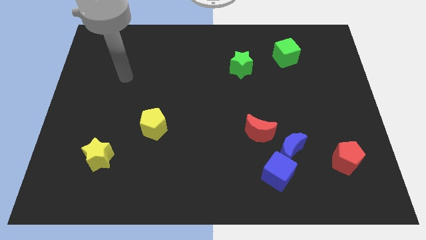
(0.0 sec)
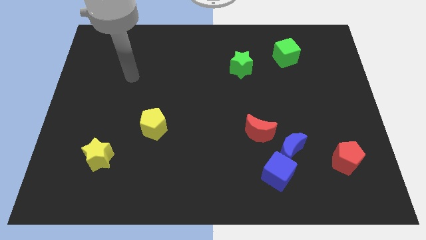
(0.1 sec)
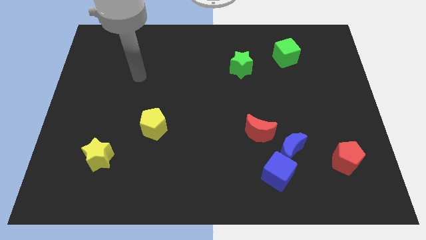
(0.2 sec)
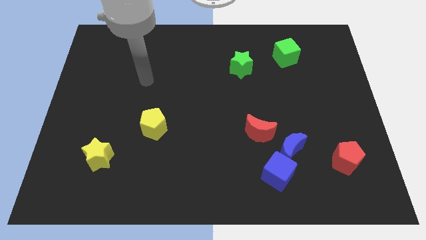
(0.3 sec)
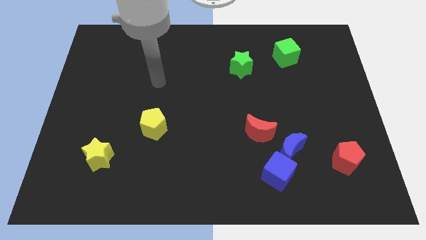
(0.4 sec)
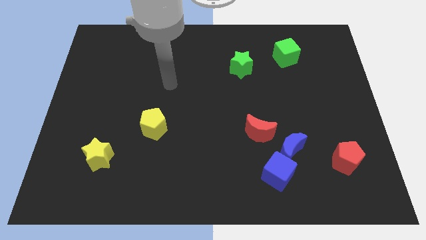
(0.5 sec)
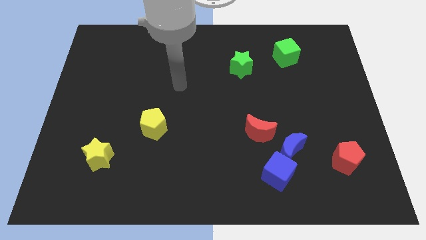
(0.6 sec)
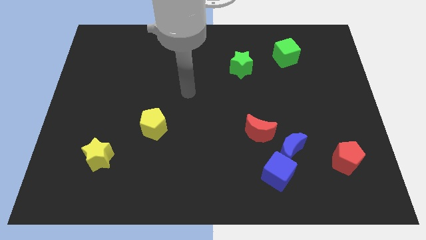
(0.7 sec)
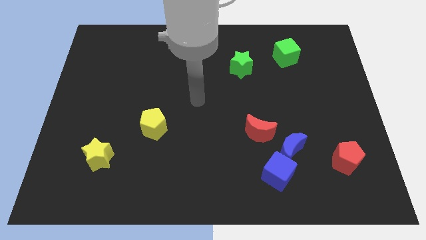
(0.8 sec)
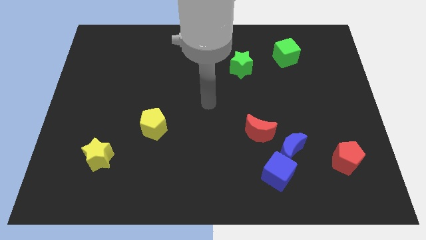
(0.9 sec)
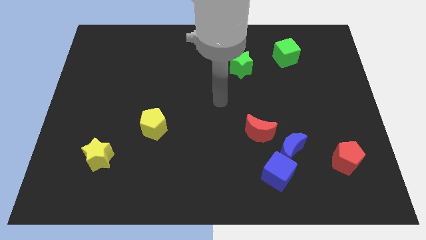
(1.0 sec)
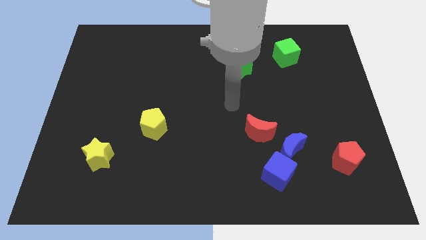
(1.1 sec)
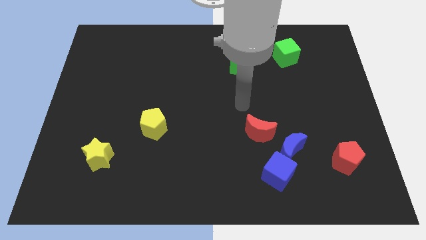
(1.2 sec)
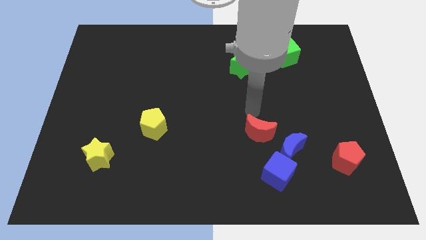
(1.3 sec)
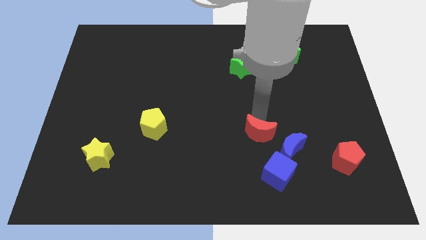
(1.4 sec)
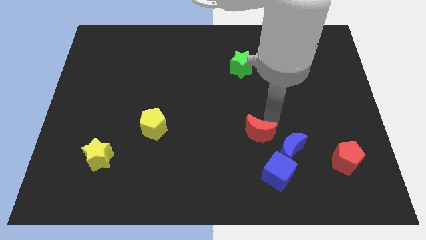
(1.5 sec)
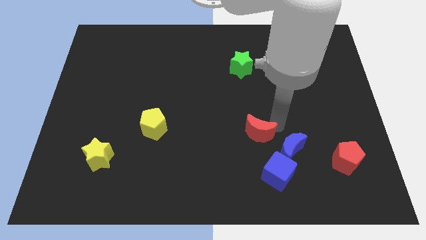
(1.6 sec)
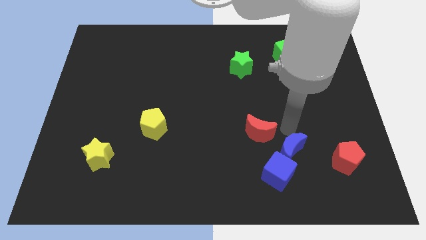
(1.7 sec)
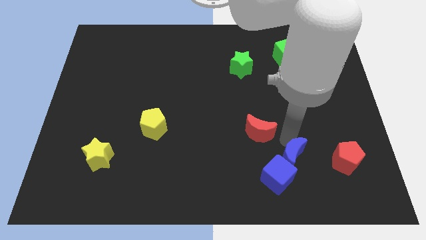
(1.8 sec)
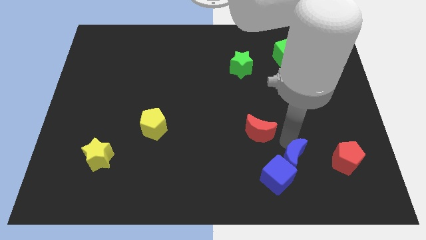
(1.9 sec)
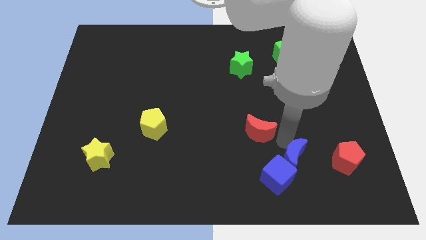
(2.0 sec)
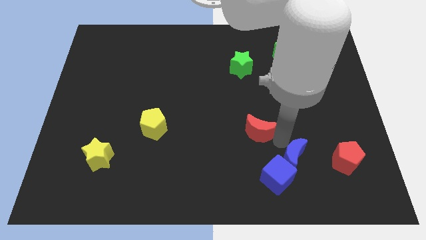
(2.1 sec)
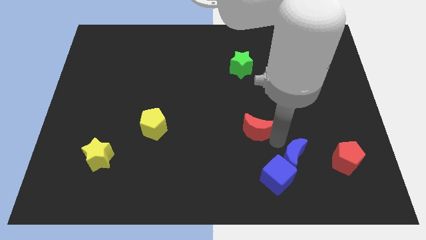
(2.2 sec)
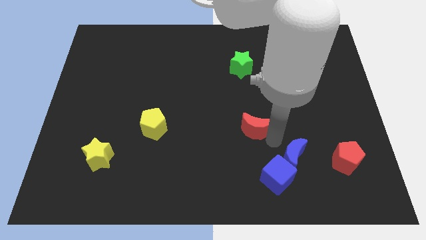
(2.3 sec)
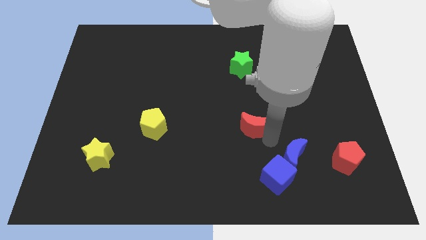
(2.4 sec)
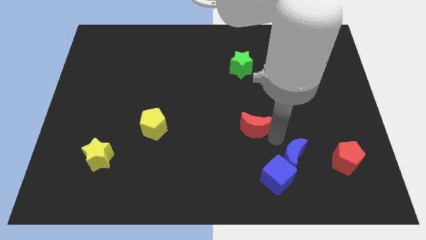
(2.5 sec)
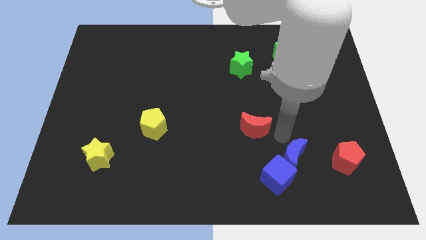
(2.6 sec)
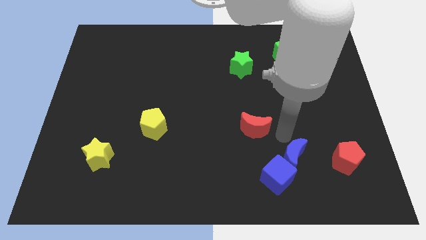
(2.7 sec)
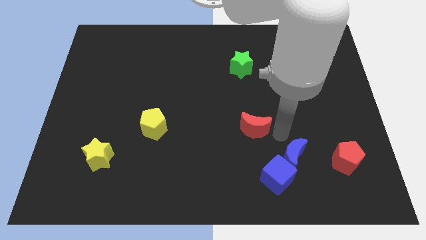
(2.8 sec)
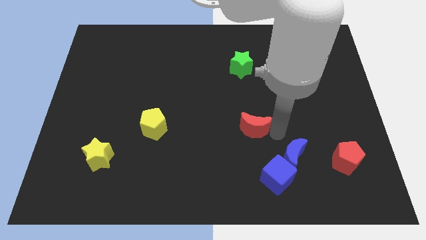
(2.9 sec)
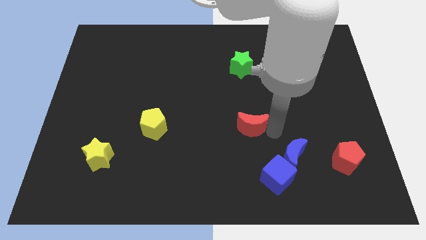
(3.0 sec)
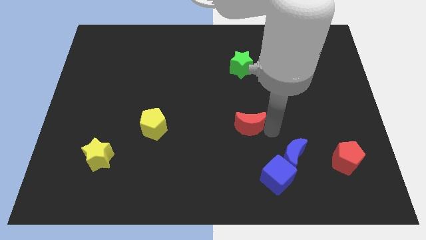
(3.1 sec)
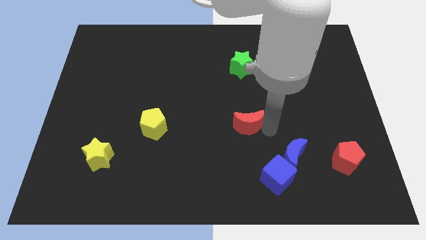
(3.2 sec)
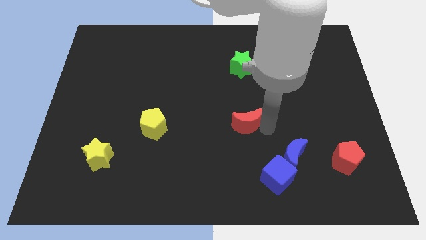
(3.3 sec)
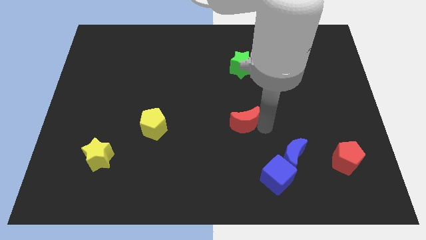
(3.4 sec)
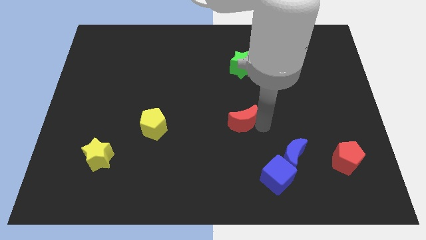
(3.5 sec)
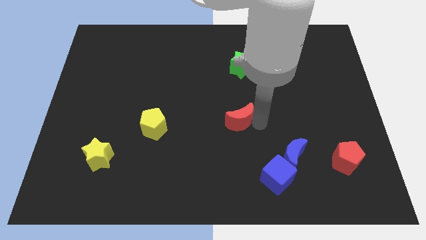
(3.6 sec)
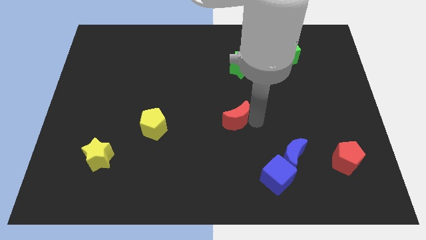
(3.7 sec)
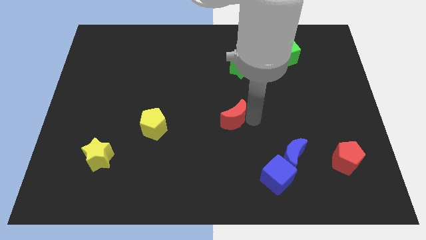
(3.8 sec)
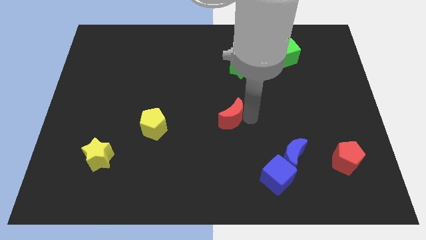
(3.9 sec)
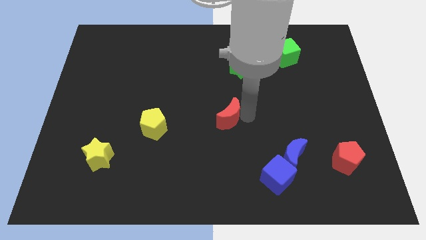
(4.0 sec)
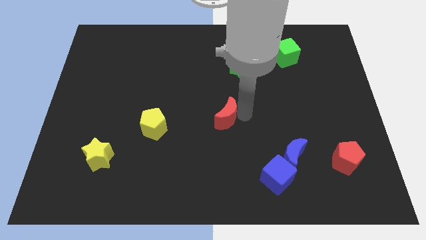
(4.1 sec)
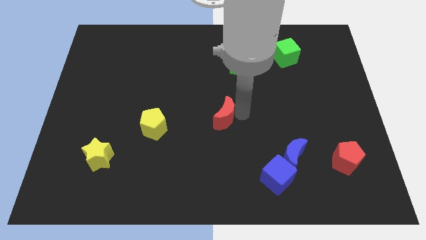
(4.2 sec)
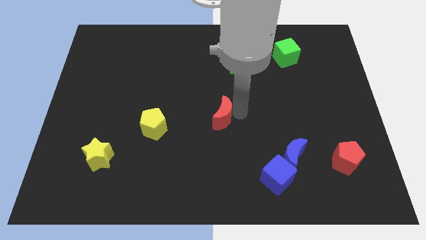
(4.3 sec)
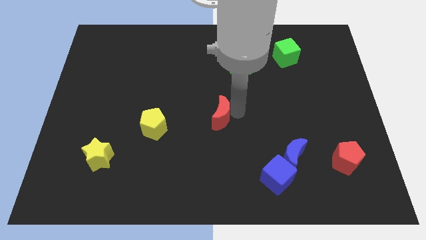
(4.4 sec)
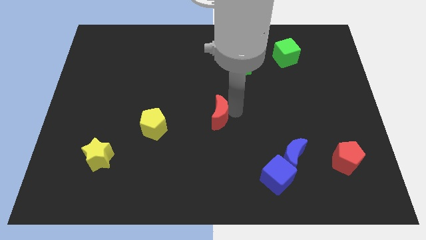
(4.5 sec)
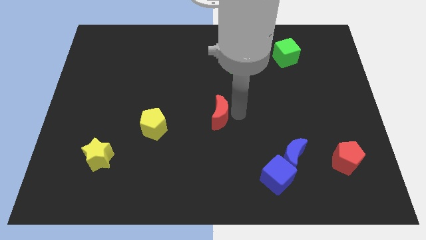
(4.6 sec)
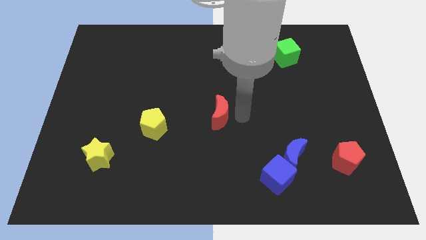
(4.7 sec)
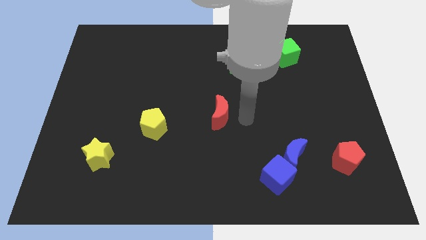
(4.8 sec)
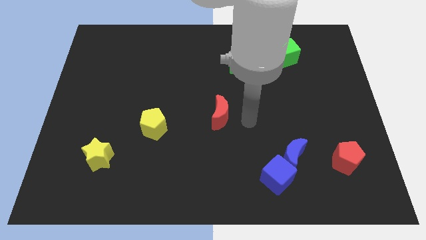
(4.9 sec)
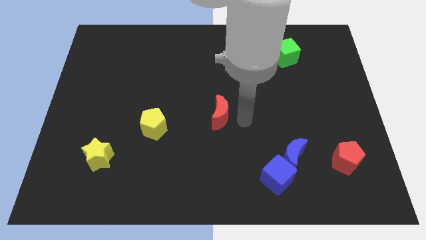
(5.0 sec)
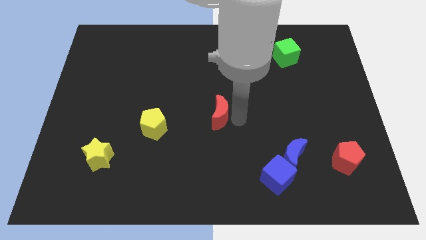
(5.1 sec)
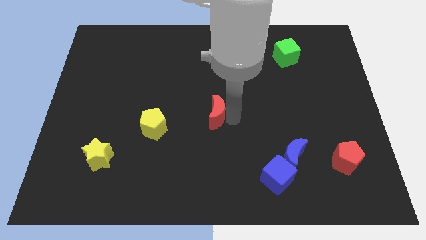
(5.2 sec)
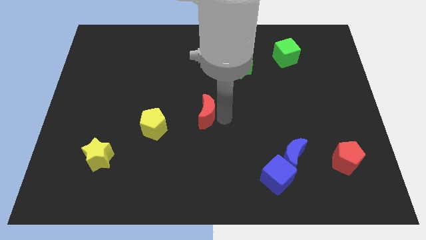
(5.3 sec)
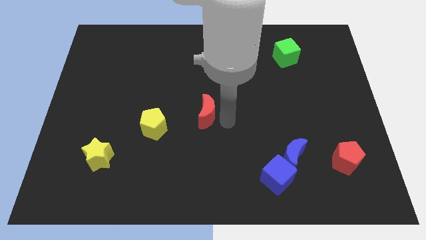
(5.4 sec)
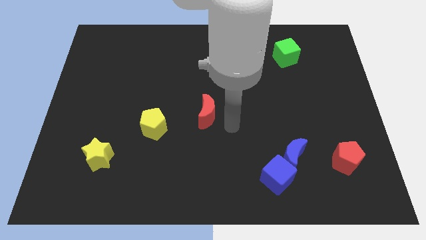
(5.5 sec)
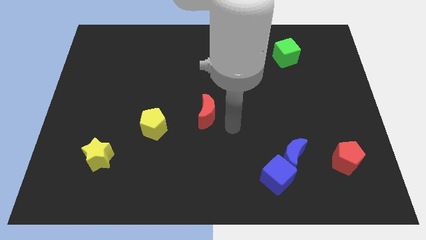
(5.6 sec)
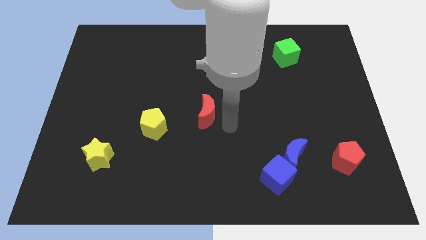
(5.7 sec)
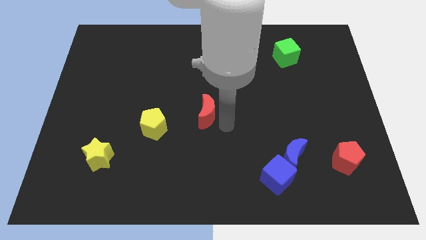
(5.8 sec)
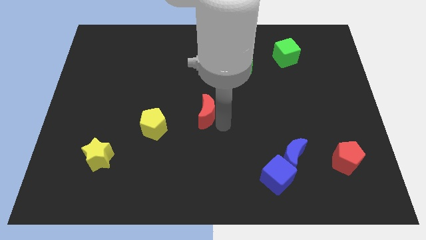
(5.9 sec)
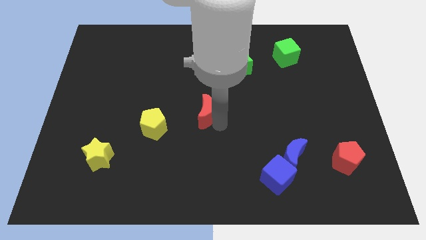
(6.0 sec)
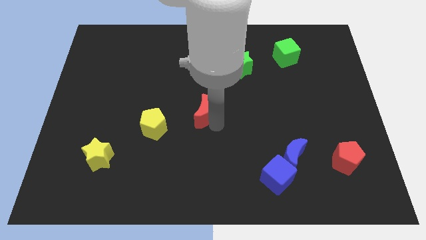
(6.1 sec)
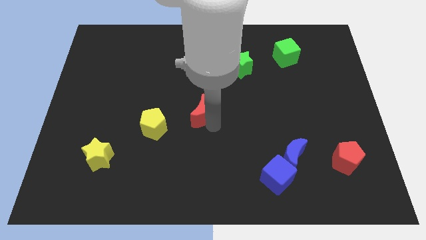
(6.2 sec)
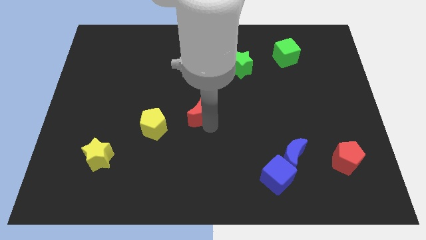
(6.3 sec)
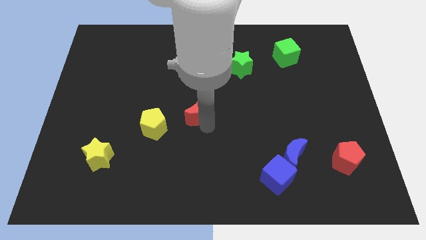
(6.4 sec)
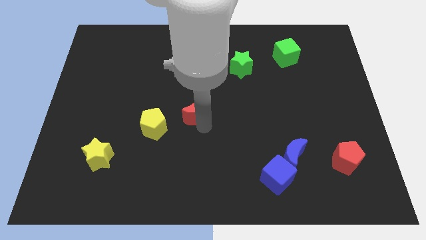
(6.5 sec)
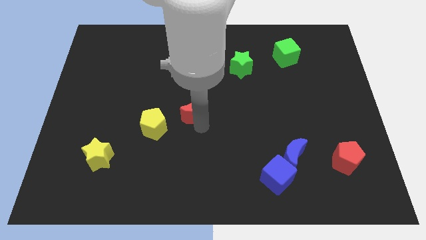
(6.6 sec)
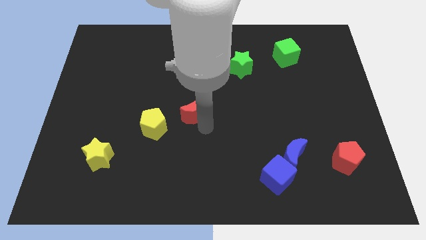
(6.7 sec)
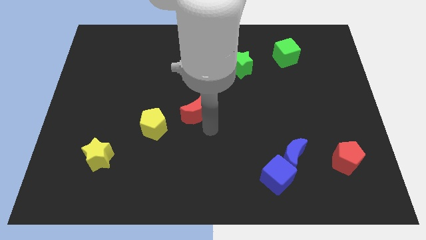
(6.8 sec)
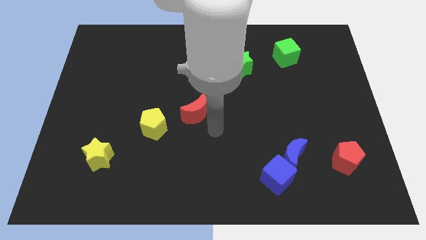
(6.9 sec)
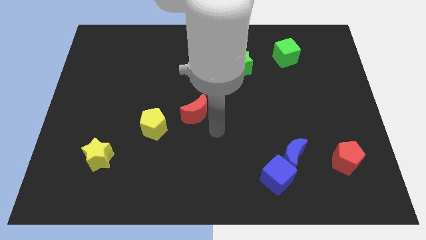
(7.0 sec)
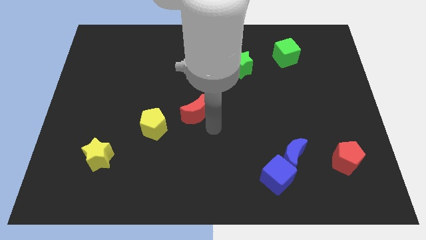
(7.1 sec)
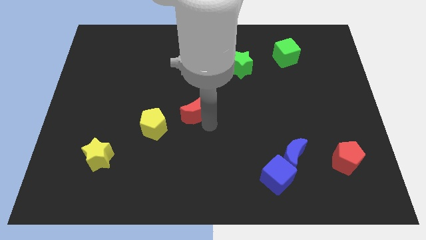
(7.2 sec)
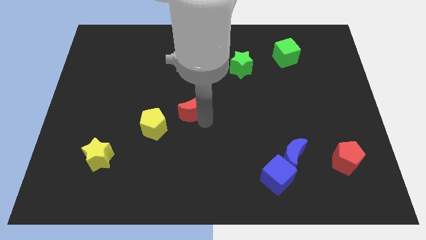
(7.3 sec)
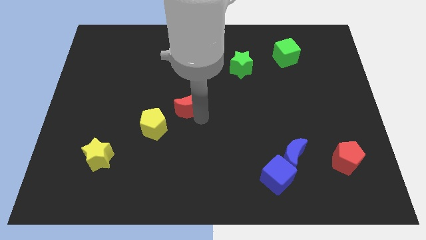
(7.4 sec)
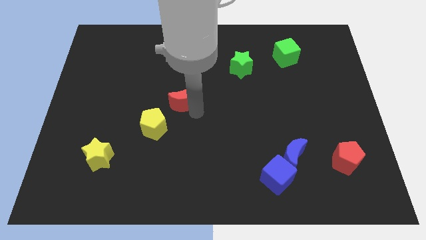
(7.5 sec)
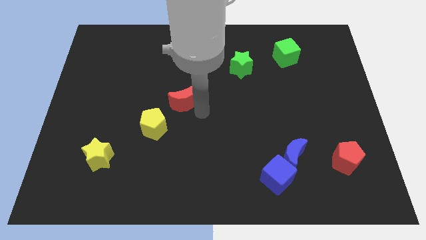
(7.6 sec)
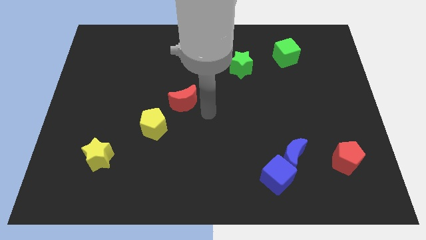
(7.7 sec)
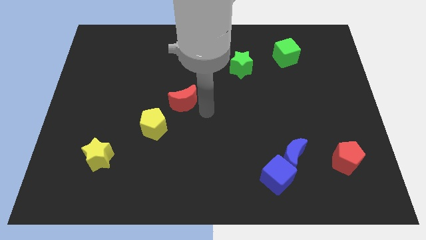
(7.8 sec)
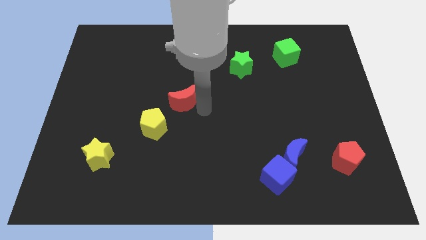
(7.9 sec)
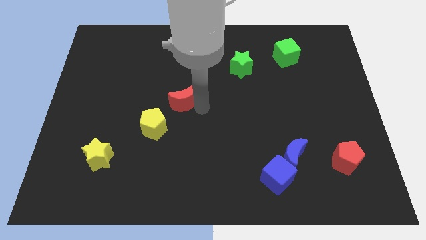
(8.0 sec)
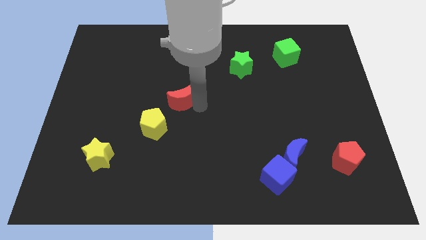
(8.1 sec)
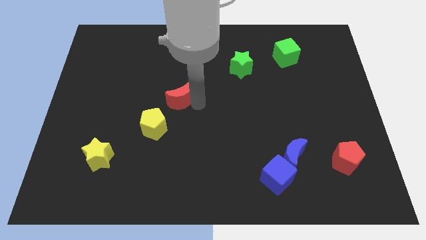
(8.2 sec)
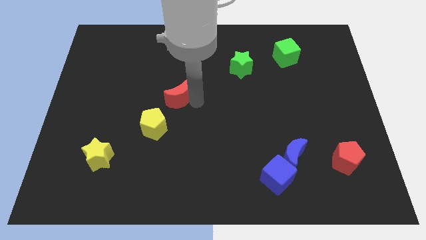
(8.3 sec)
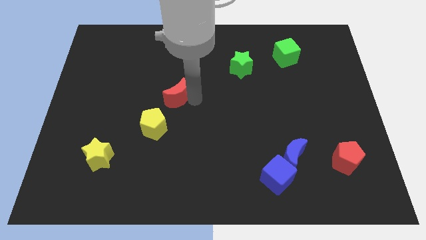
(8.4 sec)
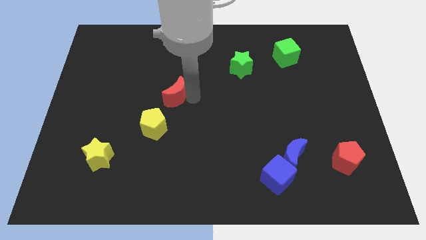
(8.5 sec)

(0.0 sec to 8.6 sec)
put the red moon above the yellow pentagon
